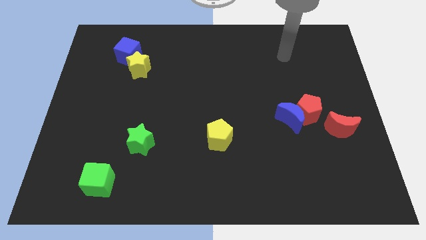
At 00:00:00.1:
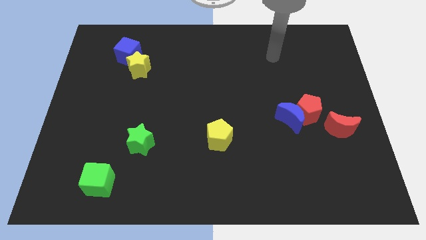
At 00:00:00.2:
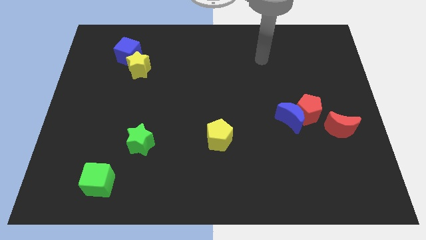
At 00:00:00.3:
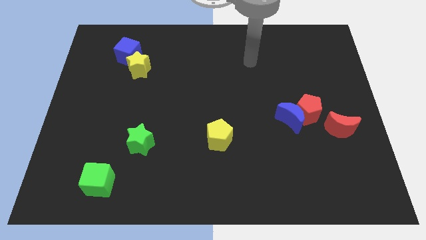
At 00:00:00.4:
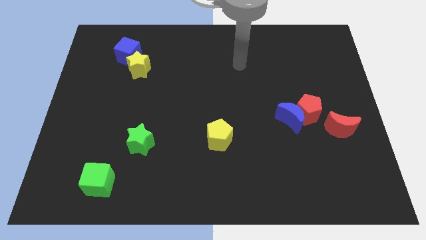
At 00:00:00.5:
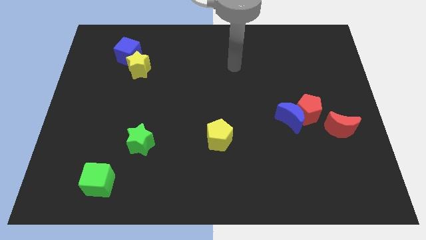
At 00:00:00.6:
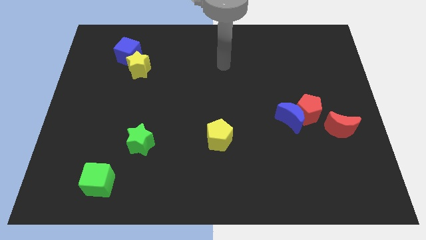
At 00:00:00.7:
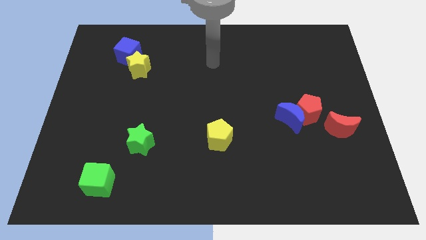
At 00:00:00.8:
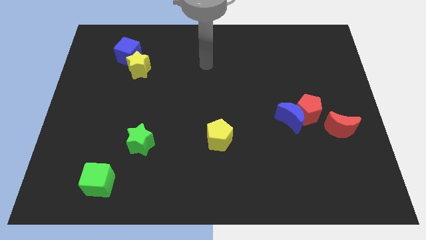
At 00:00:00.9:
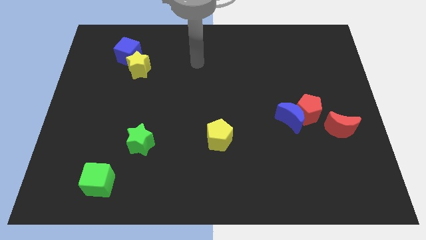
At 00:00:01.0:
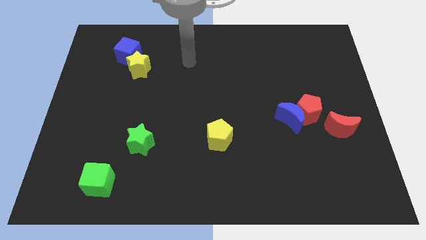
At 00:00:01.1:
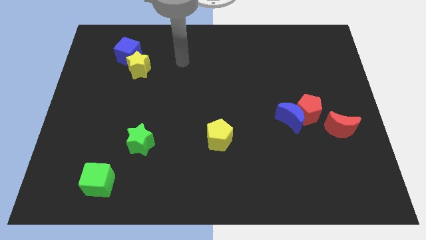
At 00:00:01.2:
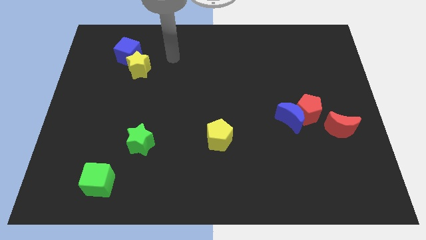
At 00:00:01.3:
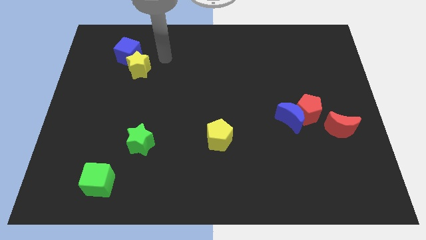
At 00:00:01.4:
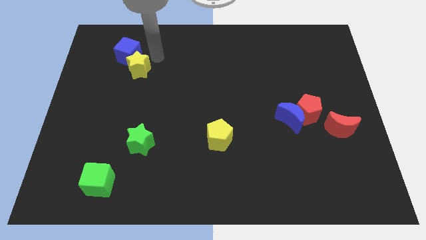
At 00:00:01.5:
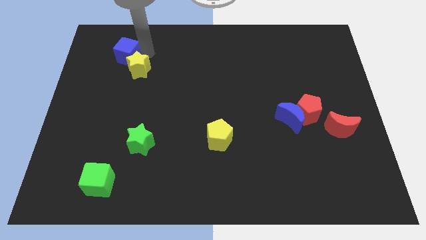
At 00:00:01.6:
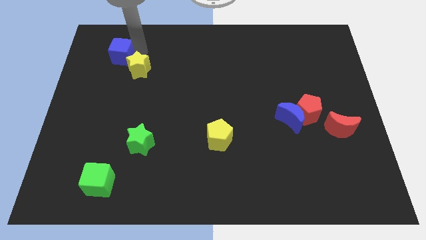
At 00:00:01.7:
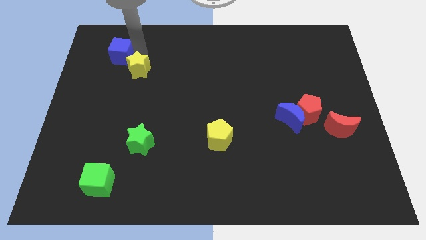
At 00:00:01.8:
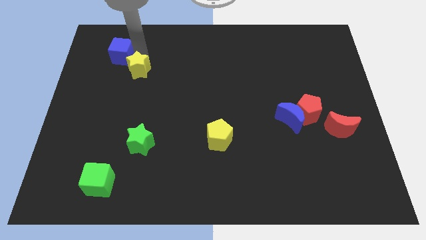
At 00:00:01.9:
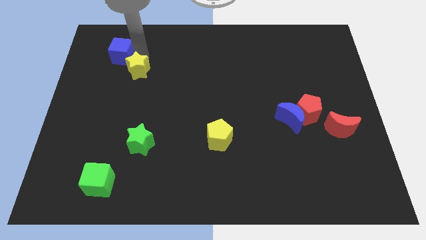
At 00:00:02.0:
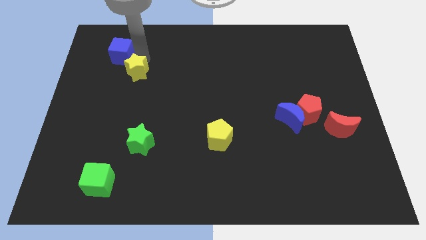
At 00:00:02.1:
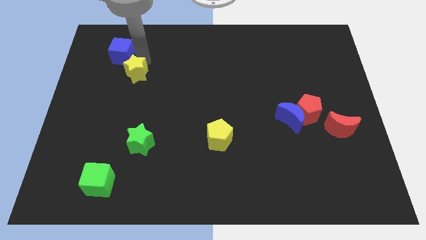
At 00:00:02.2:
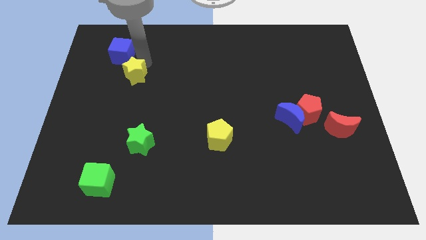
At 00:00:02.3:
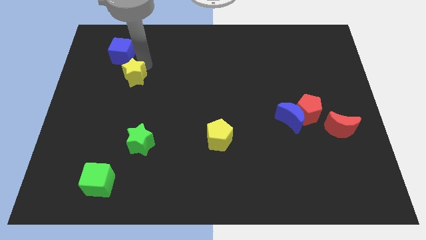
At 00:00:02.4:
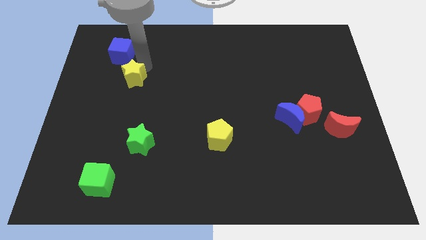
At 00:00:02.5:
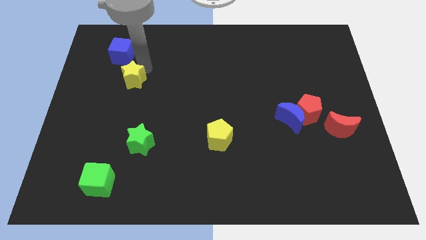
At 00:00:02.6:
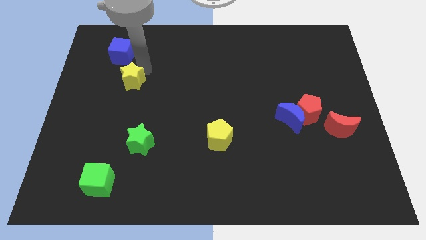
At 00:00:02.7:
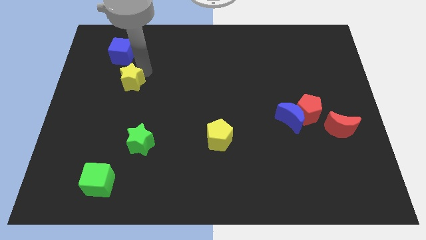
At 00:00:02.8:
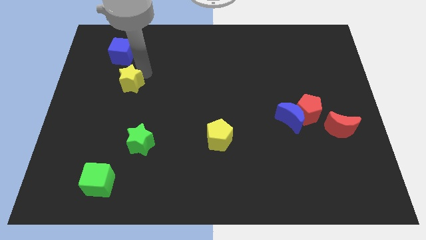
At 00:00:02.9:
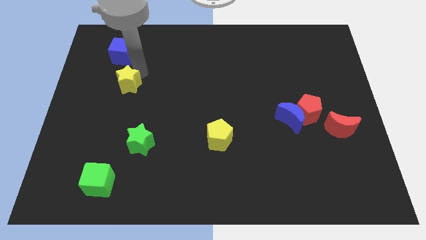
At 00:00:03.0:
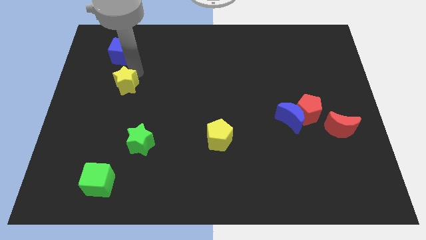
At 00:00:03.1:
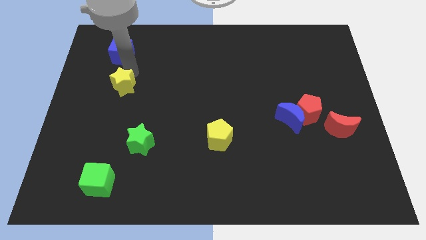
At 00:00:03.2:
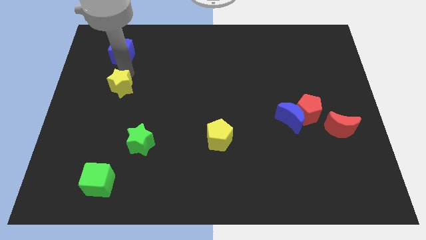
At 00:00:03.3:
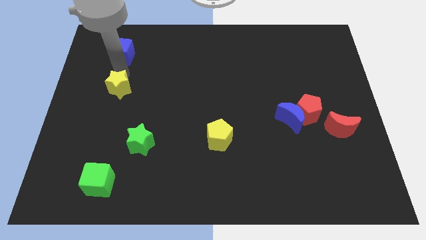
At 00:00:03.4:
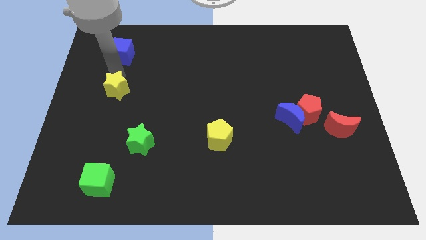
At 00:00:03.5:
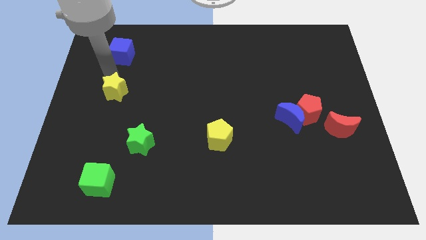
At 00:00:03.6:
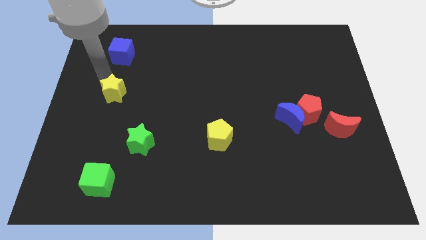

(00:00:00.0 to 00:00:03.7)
move the yellow star a little bit down

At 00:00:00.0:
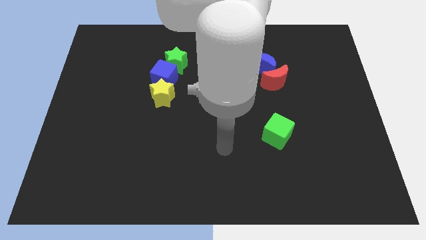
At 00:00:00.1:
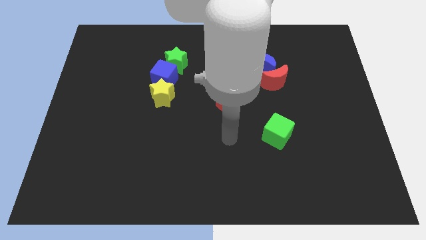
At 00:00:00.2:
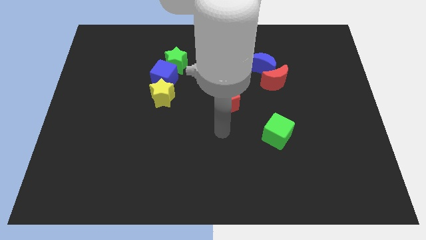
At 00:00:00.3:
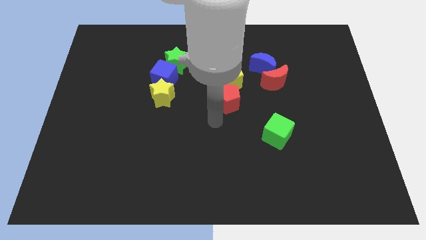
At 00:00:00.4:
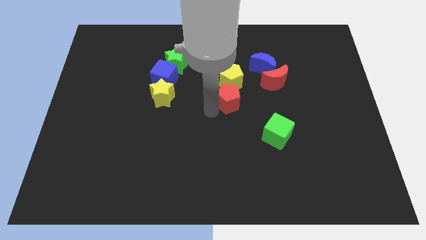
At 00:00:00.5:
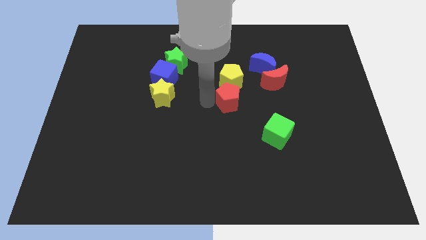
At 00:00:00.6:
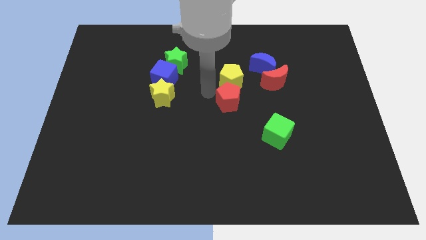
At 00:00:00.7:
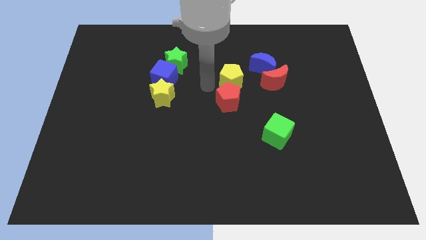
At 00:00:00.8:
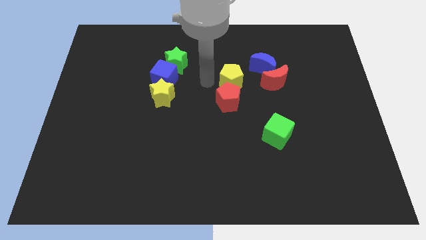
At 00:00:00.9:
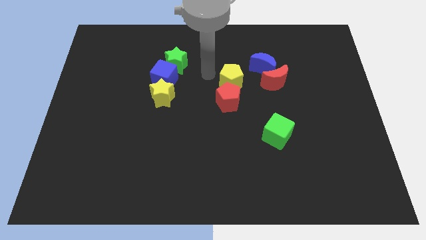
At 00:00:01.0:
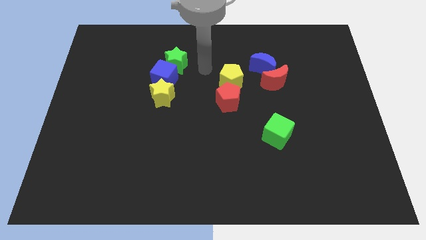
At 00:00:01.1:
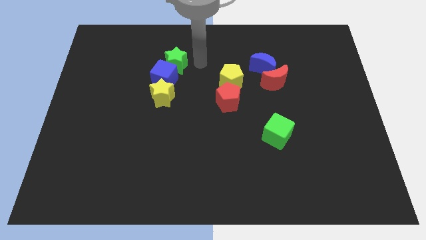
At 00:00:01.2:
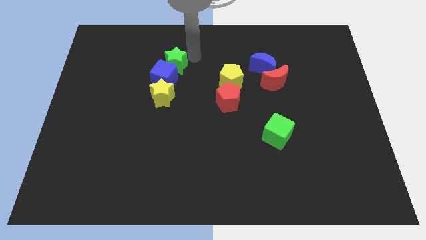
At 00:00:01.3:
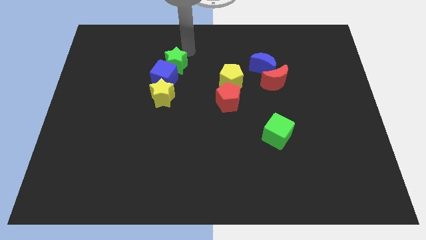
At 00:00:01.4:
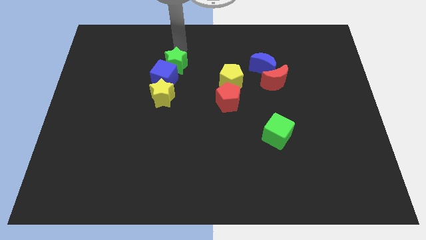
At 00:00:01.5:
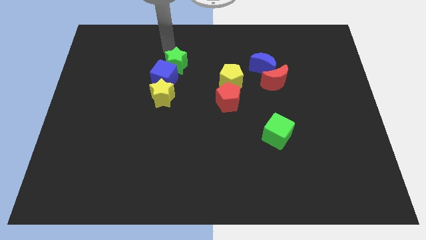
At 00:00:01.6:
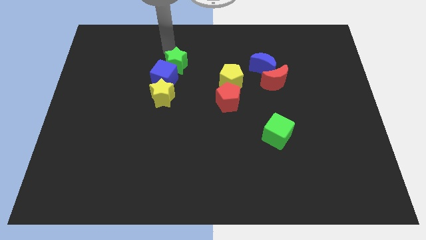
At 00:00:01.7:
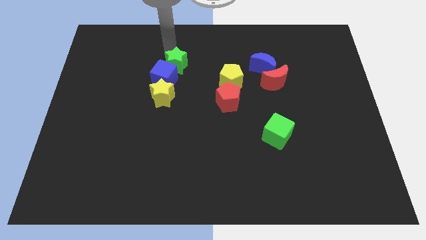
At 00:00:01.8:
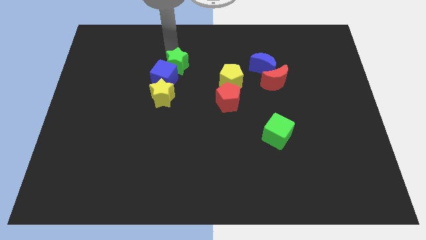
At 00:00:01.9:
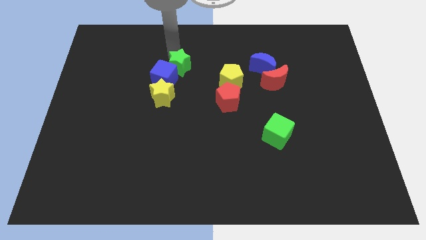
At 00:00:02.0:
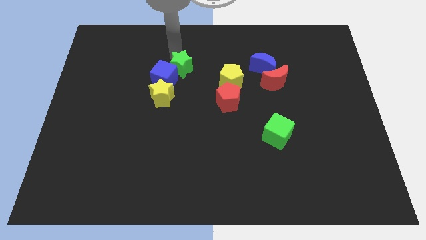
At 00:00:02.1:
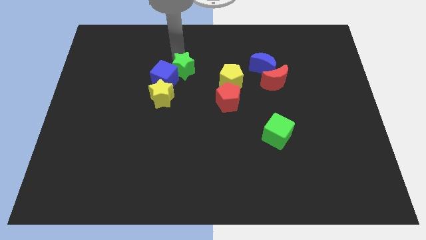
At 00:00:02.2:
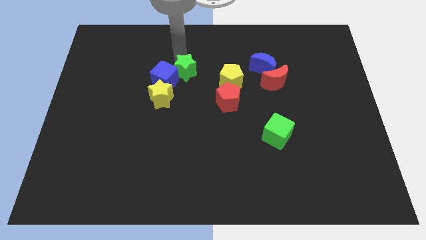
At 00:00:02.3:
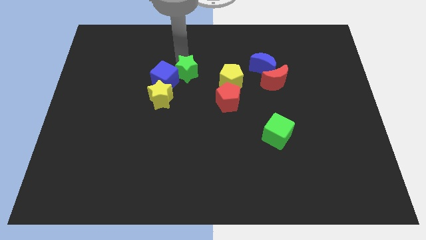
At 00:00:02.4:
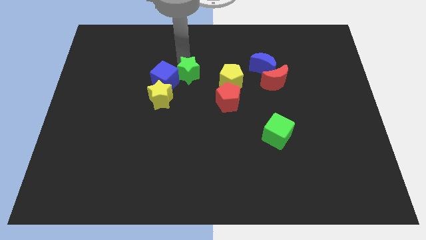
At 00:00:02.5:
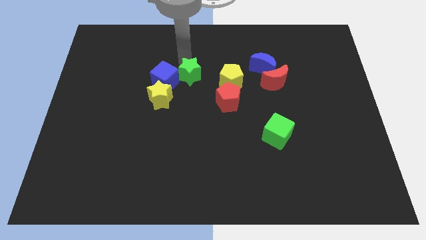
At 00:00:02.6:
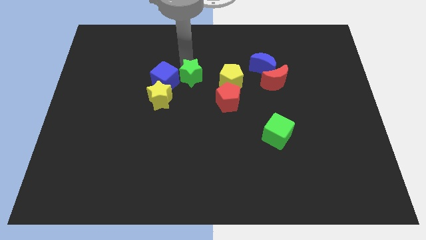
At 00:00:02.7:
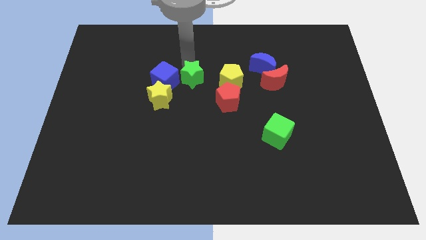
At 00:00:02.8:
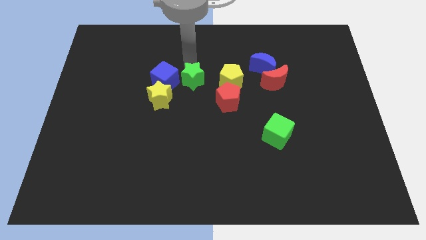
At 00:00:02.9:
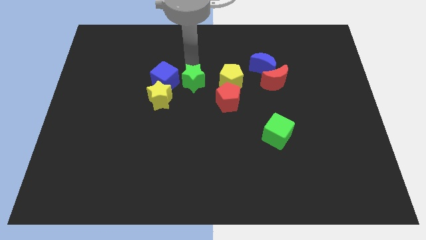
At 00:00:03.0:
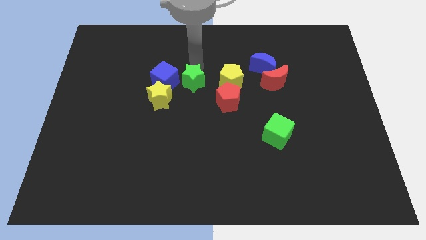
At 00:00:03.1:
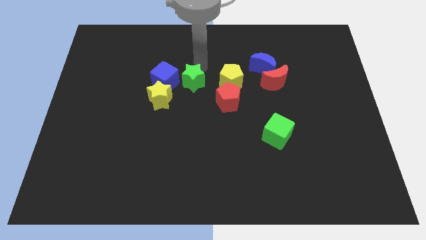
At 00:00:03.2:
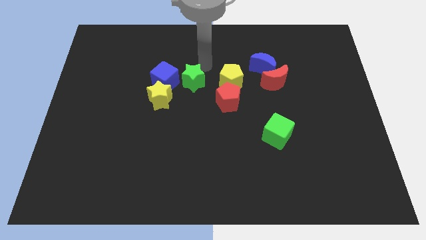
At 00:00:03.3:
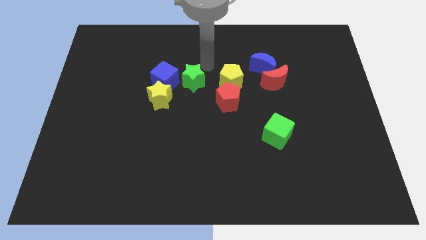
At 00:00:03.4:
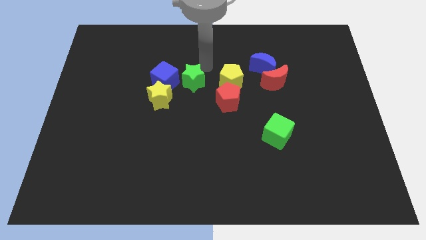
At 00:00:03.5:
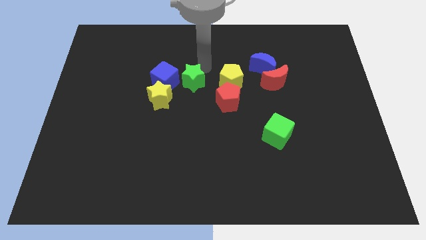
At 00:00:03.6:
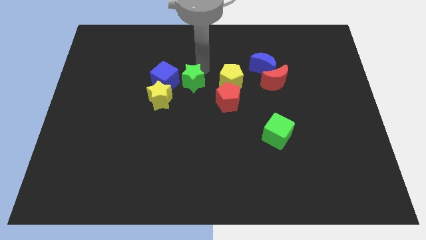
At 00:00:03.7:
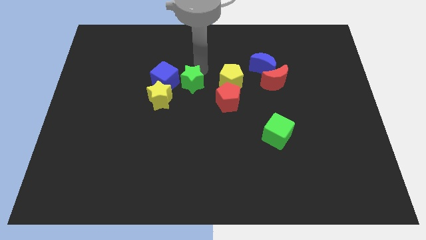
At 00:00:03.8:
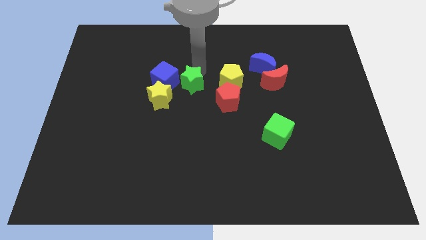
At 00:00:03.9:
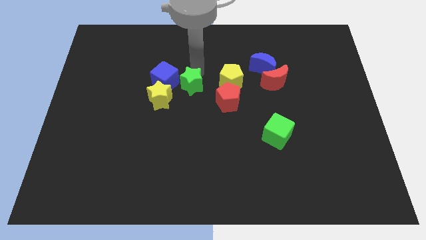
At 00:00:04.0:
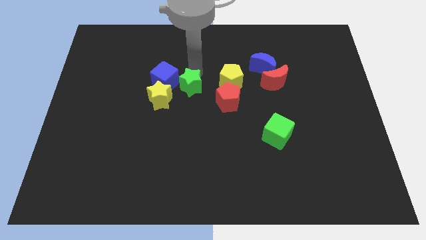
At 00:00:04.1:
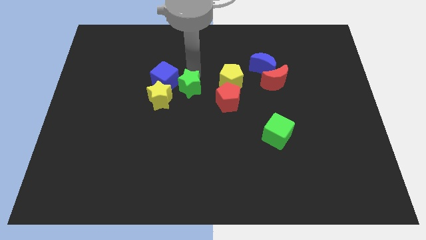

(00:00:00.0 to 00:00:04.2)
slide the green star a little down
